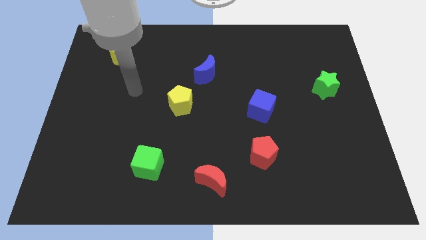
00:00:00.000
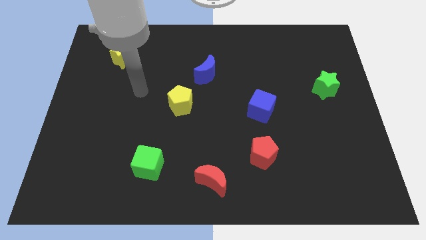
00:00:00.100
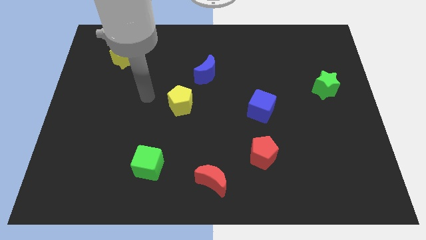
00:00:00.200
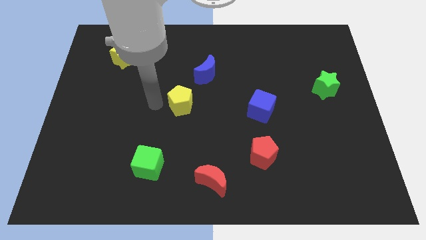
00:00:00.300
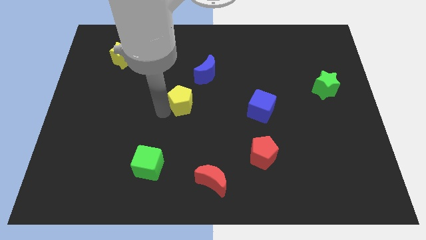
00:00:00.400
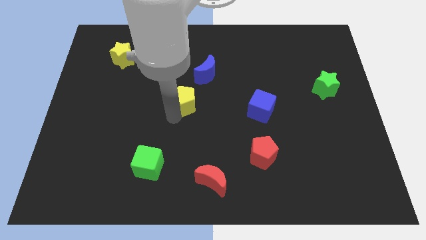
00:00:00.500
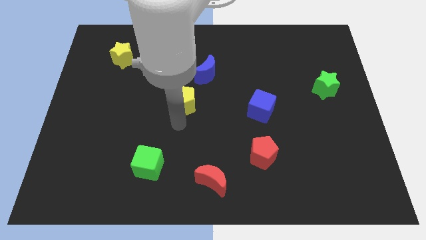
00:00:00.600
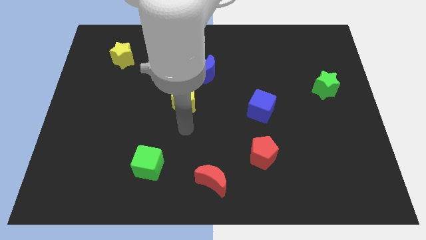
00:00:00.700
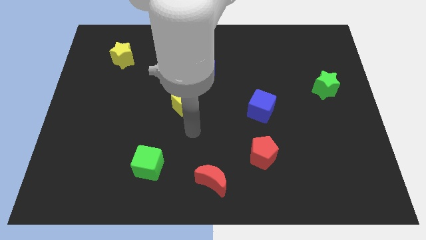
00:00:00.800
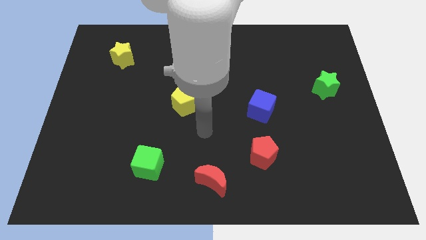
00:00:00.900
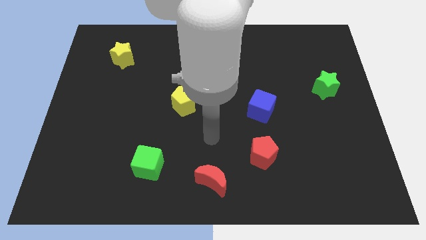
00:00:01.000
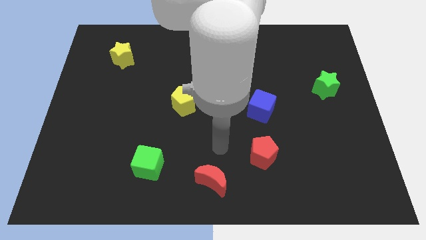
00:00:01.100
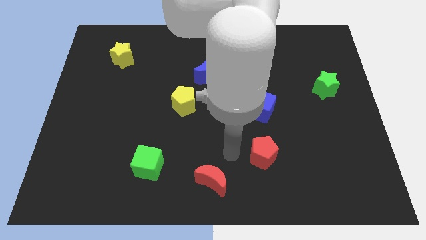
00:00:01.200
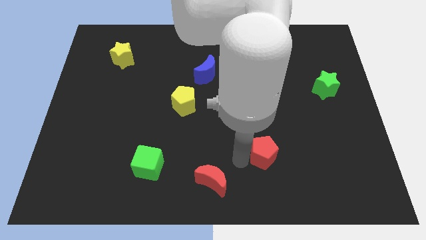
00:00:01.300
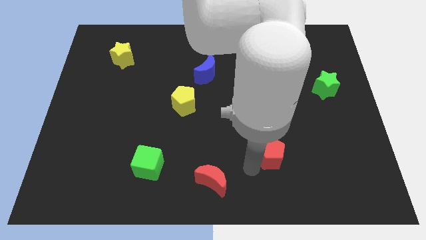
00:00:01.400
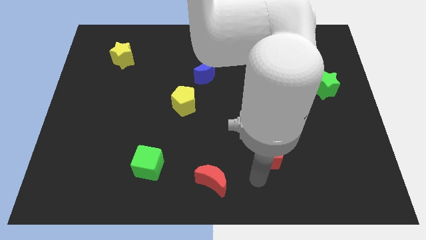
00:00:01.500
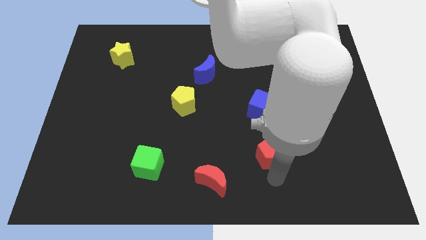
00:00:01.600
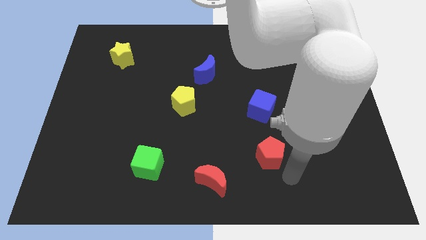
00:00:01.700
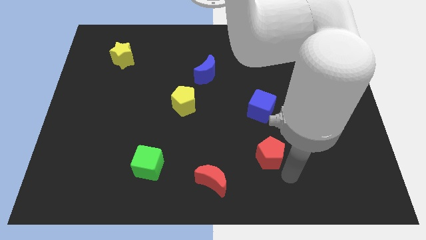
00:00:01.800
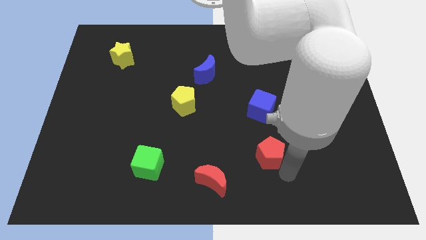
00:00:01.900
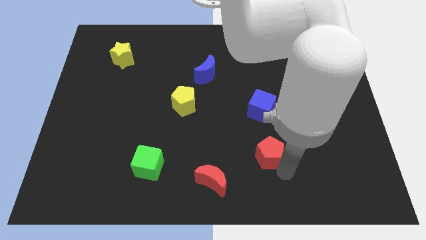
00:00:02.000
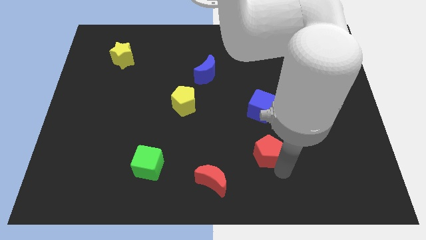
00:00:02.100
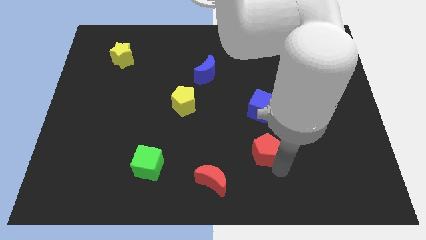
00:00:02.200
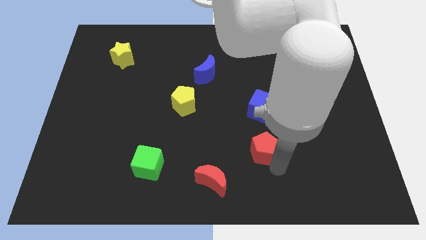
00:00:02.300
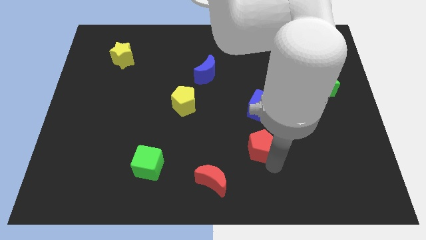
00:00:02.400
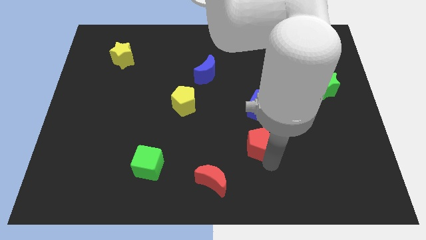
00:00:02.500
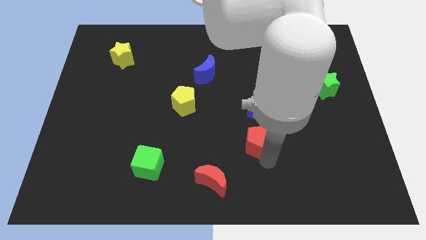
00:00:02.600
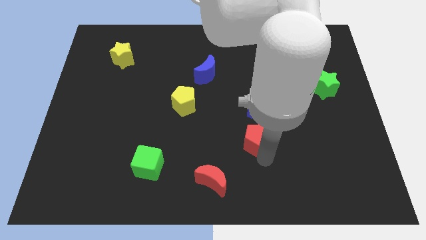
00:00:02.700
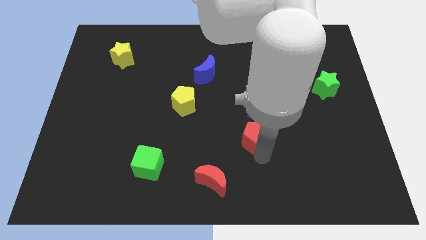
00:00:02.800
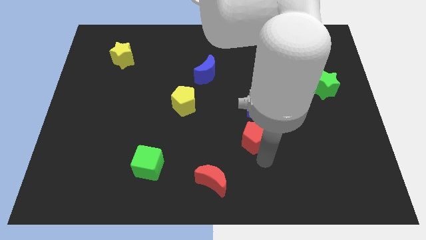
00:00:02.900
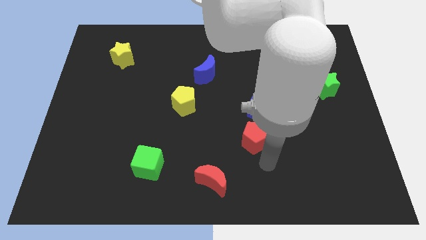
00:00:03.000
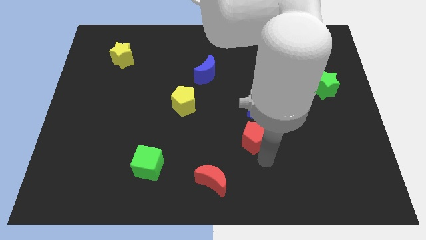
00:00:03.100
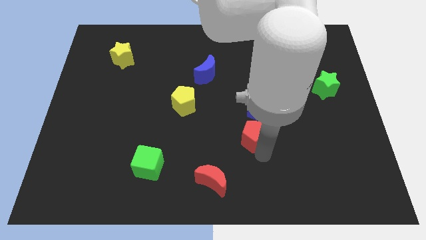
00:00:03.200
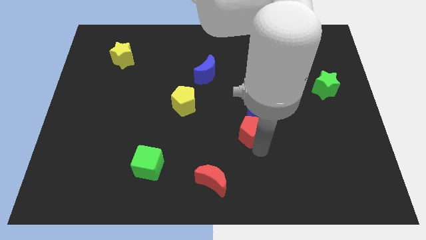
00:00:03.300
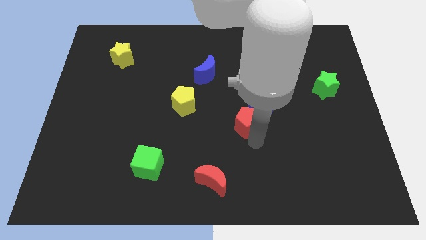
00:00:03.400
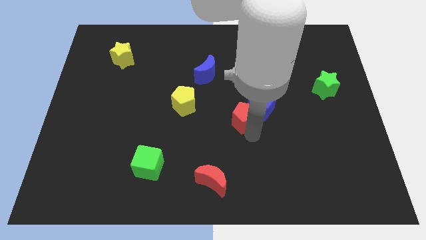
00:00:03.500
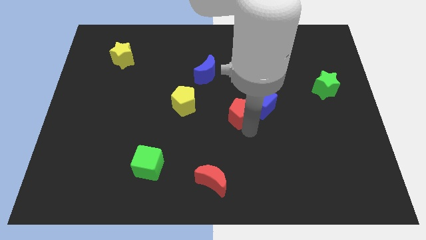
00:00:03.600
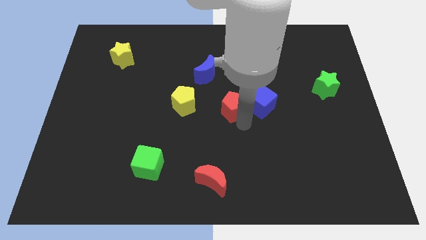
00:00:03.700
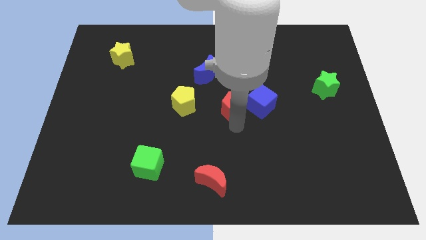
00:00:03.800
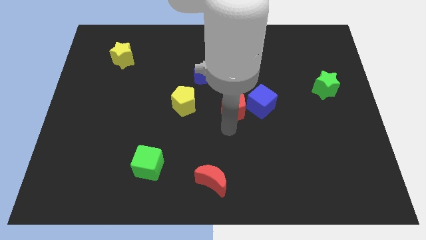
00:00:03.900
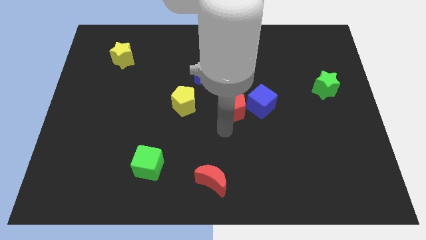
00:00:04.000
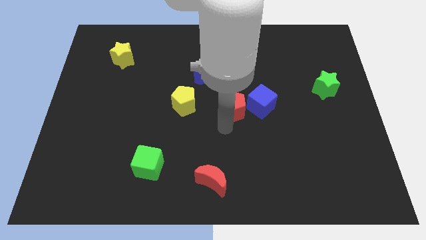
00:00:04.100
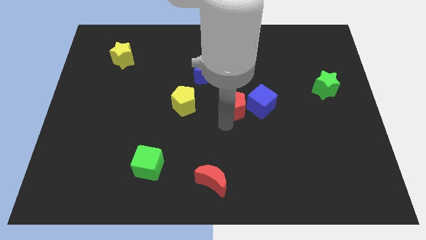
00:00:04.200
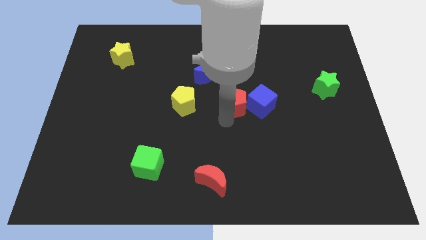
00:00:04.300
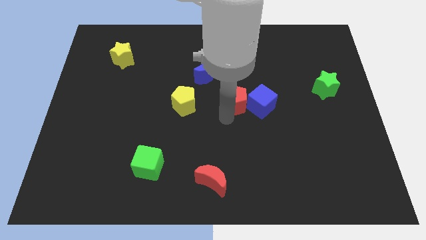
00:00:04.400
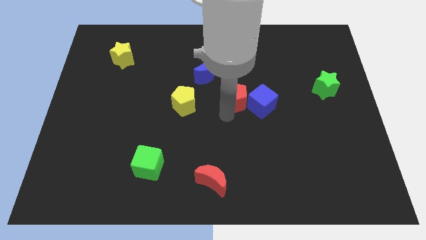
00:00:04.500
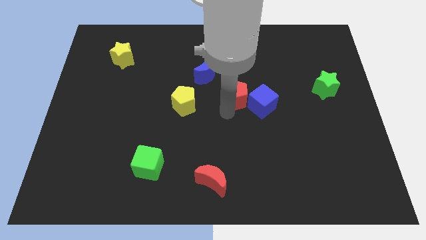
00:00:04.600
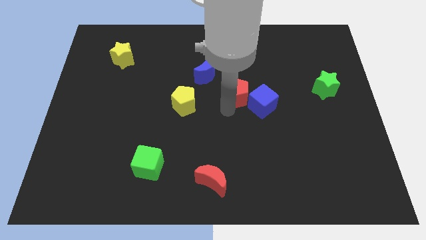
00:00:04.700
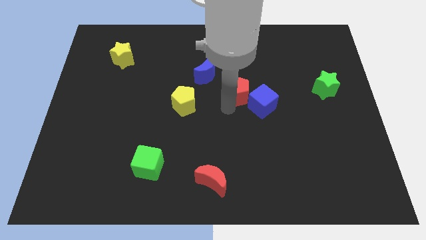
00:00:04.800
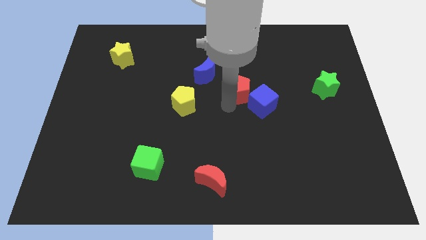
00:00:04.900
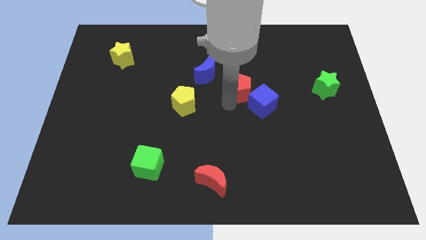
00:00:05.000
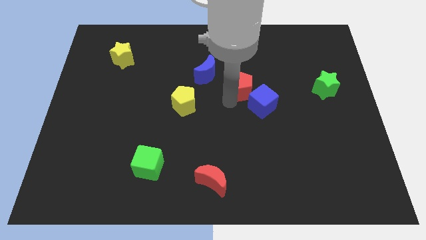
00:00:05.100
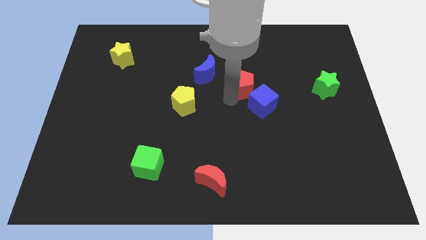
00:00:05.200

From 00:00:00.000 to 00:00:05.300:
slide the red pentagon right of the blue moon

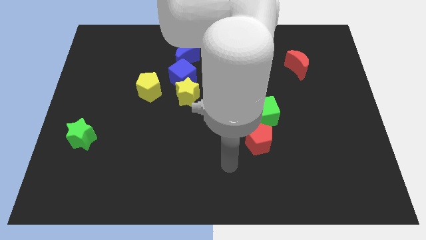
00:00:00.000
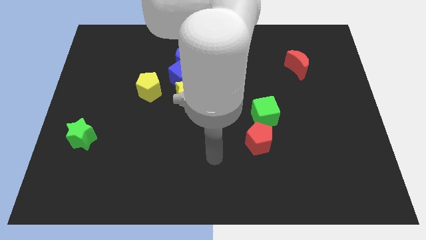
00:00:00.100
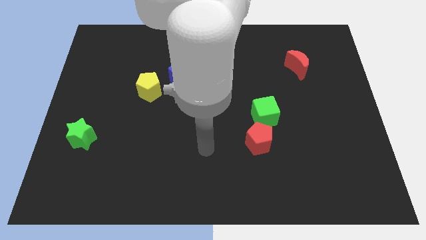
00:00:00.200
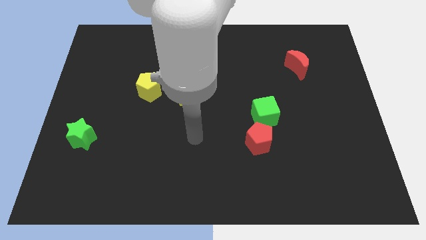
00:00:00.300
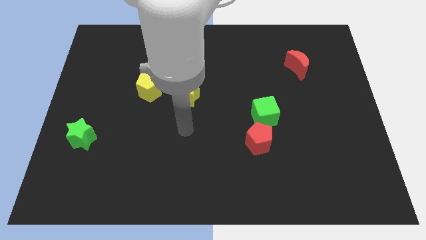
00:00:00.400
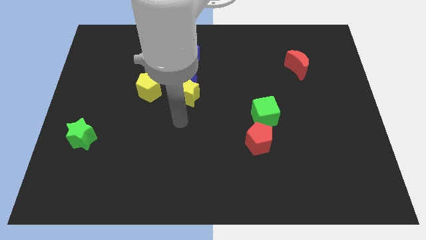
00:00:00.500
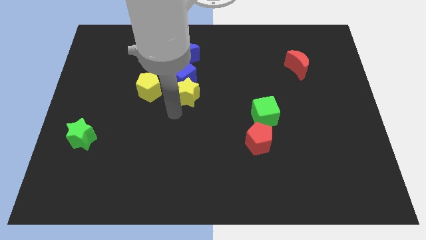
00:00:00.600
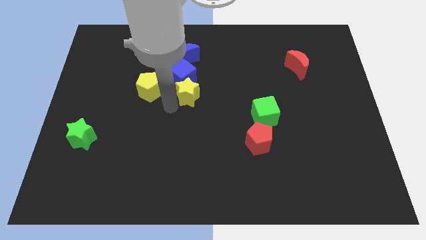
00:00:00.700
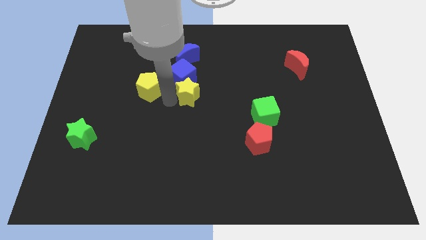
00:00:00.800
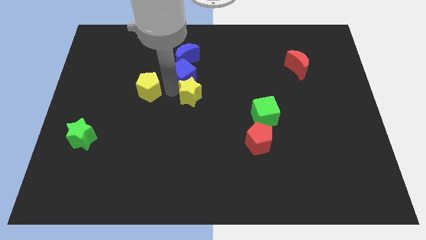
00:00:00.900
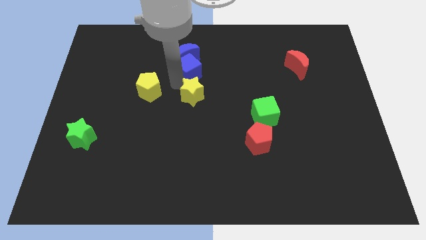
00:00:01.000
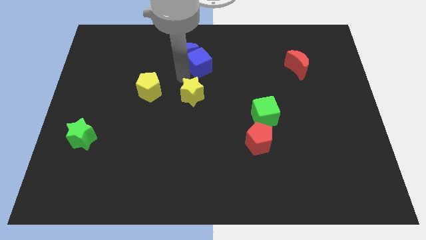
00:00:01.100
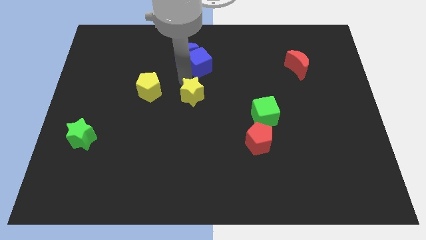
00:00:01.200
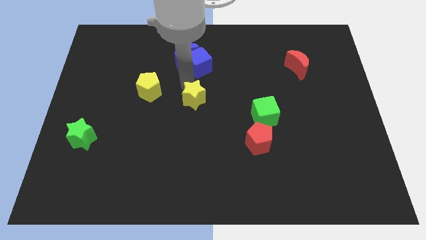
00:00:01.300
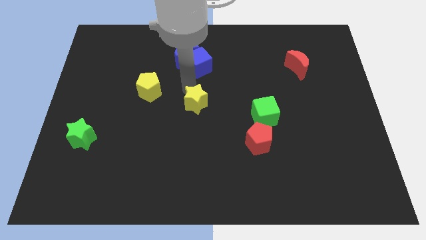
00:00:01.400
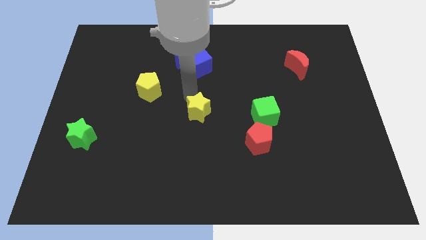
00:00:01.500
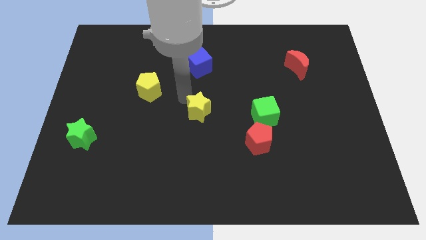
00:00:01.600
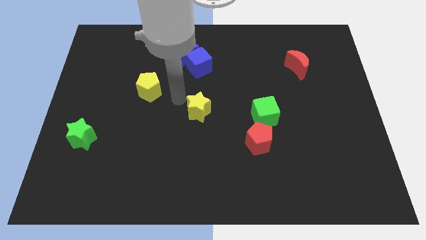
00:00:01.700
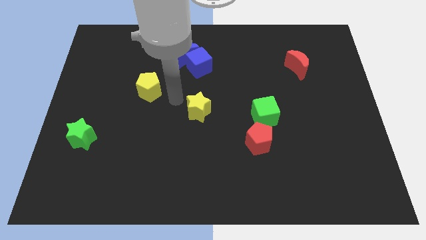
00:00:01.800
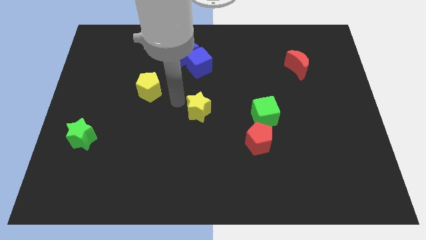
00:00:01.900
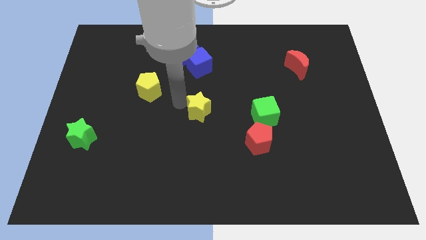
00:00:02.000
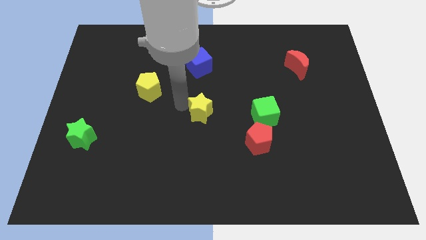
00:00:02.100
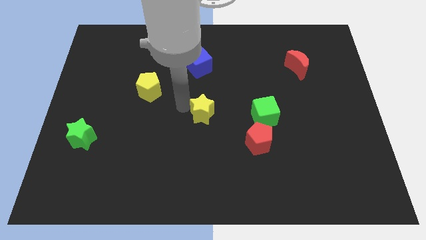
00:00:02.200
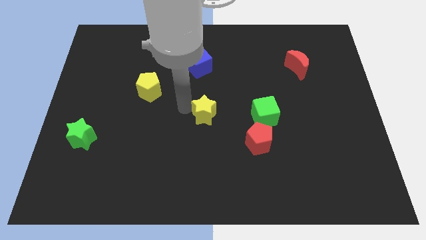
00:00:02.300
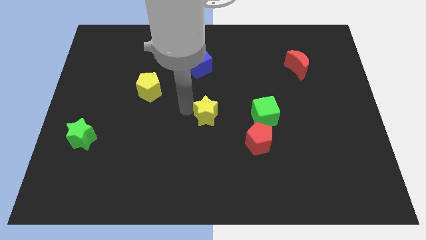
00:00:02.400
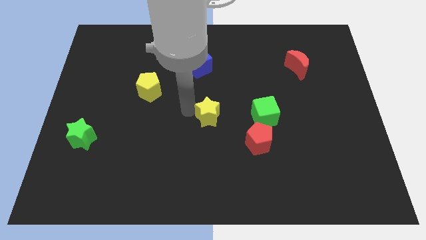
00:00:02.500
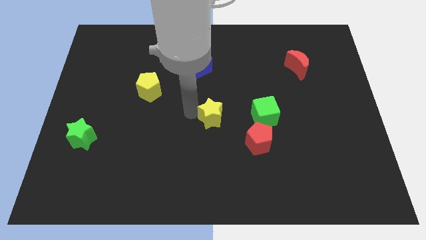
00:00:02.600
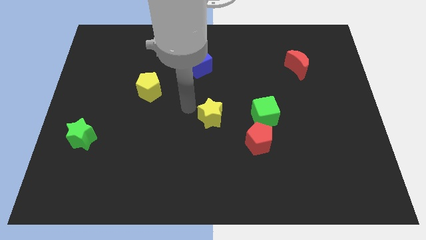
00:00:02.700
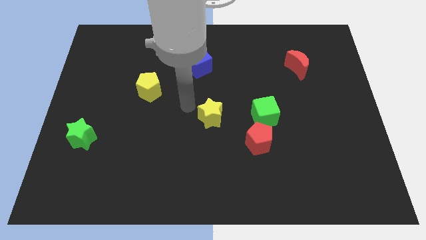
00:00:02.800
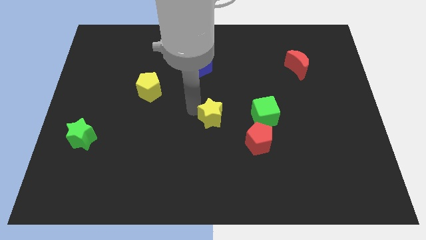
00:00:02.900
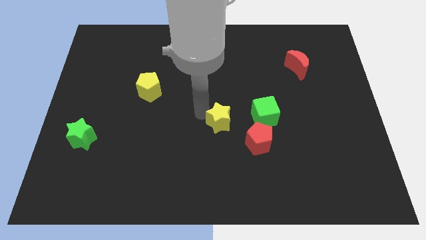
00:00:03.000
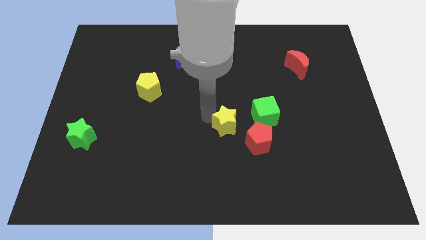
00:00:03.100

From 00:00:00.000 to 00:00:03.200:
push the yellow star diagonally down and to the left of the green cube
